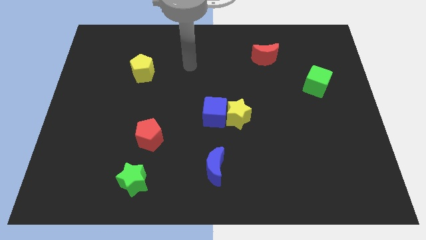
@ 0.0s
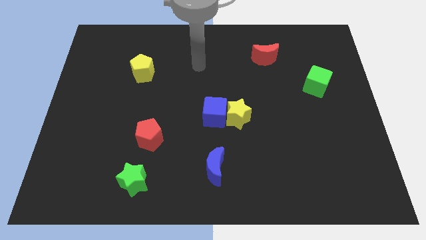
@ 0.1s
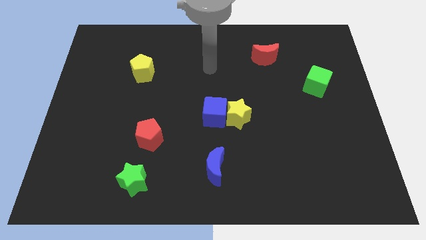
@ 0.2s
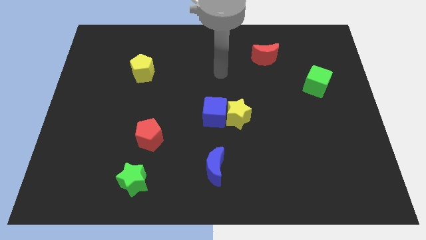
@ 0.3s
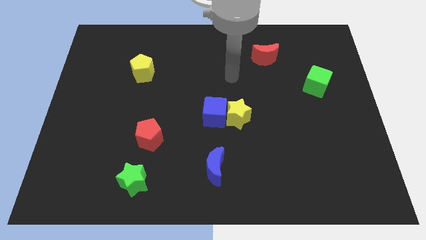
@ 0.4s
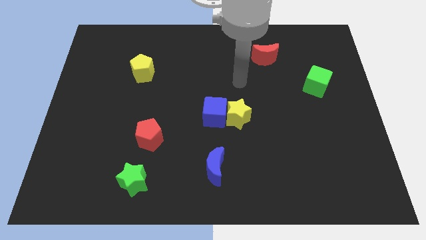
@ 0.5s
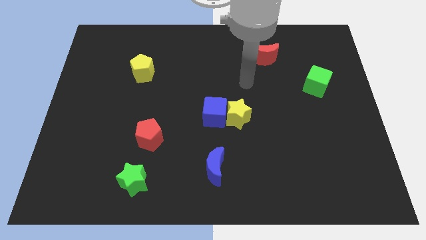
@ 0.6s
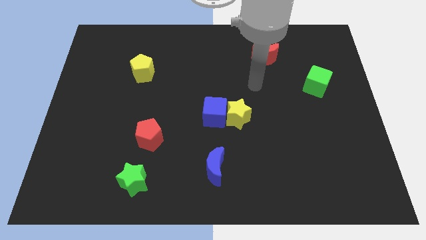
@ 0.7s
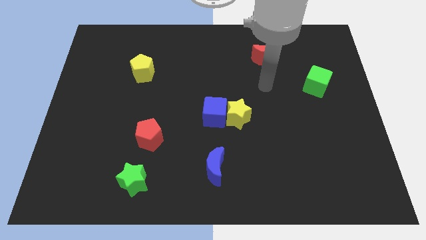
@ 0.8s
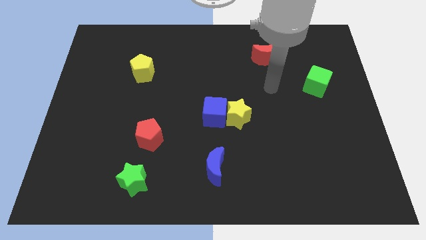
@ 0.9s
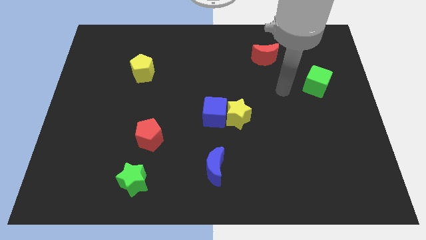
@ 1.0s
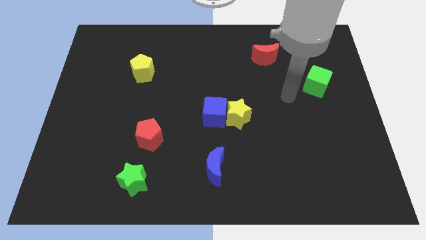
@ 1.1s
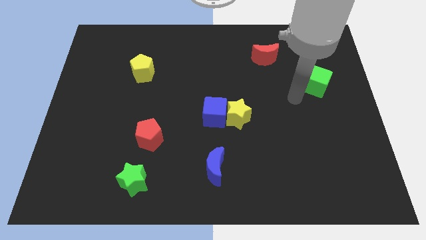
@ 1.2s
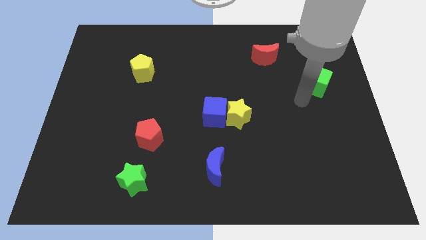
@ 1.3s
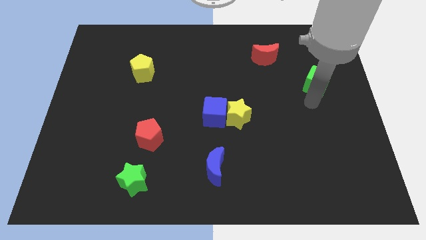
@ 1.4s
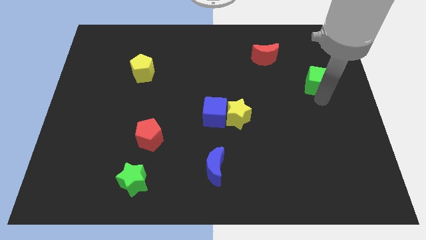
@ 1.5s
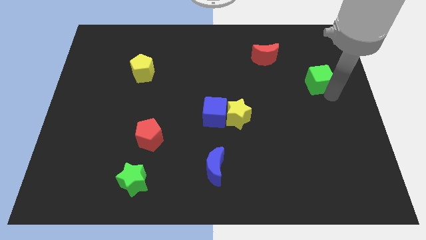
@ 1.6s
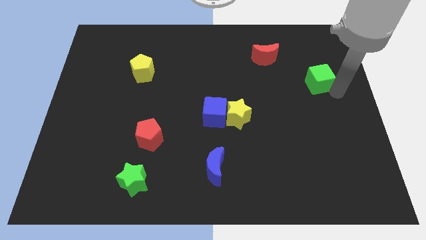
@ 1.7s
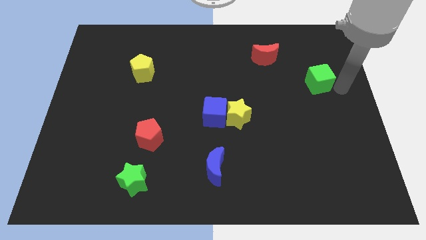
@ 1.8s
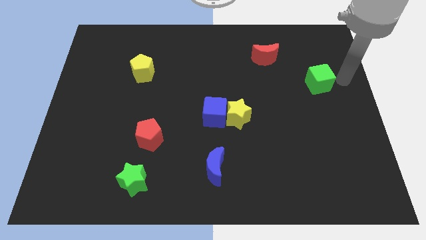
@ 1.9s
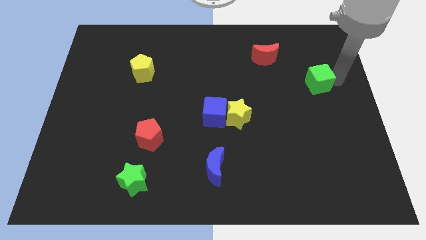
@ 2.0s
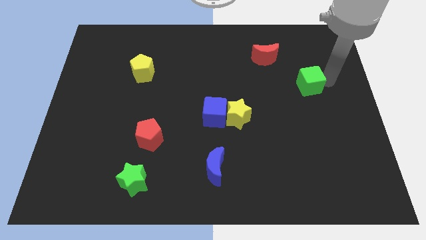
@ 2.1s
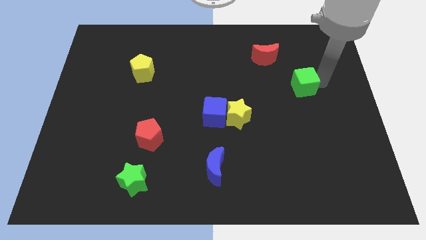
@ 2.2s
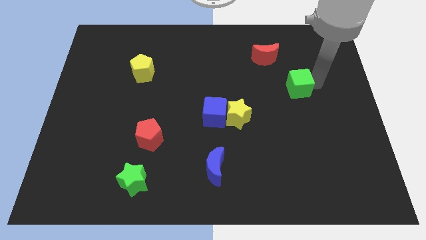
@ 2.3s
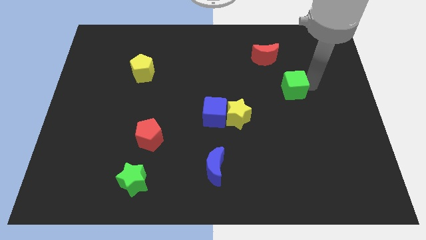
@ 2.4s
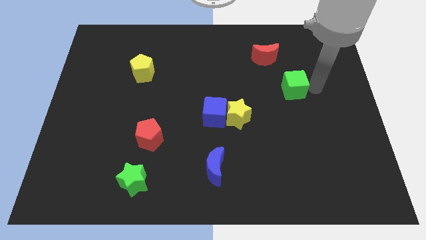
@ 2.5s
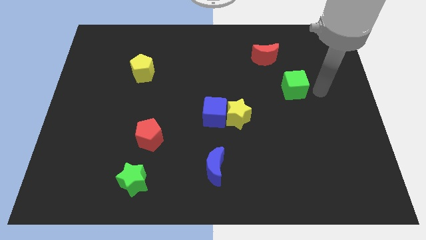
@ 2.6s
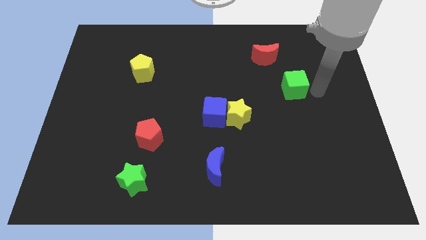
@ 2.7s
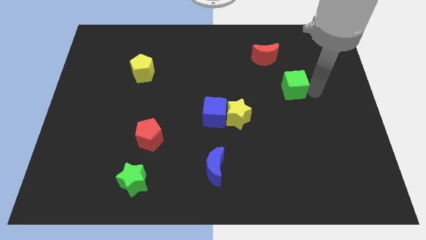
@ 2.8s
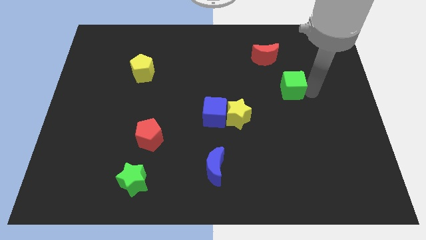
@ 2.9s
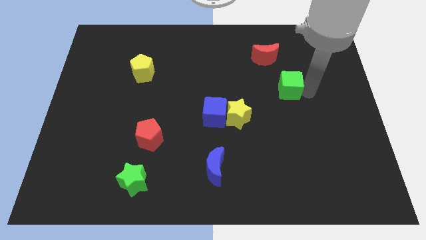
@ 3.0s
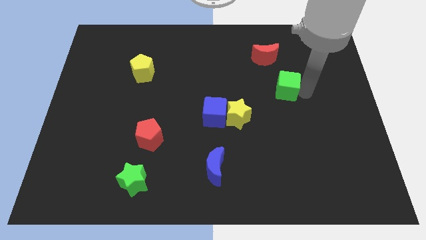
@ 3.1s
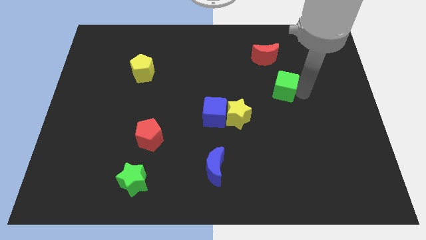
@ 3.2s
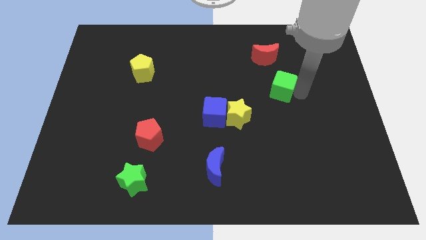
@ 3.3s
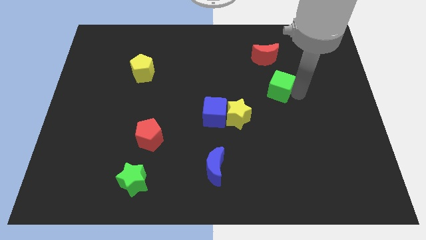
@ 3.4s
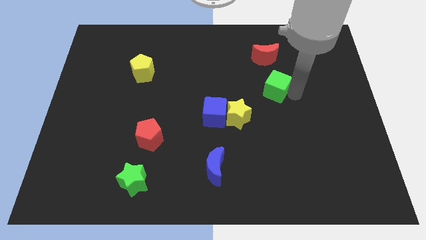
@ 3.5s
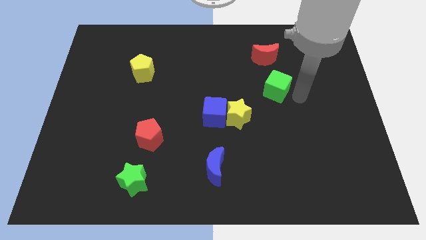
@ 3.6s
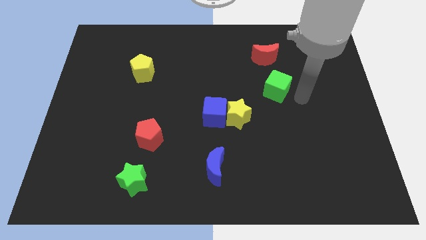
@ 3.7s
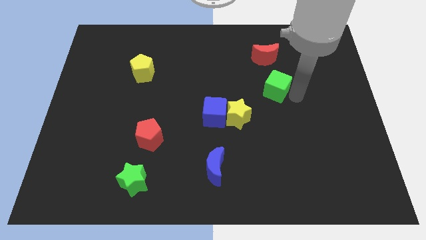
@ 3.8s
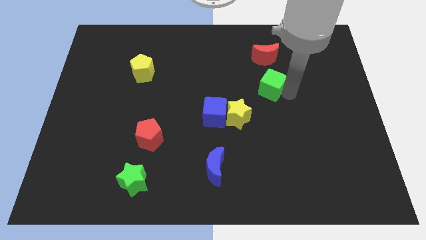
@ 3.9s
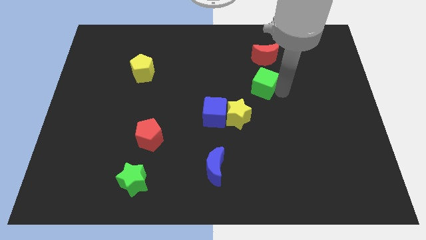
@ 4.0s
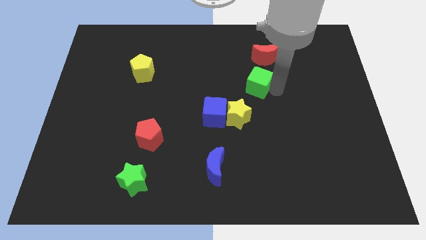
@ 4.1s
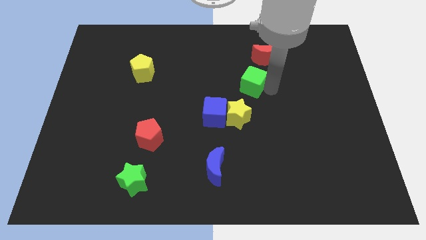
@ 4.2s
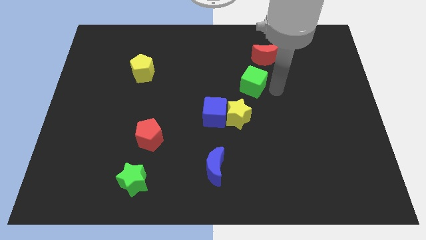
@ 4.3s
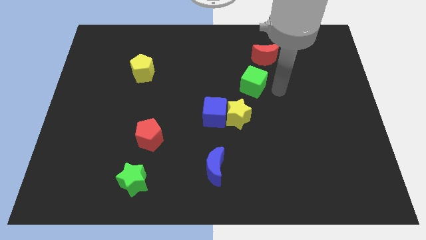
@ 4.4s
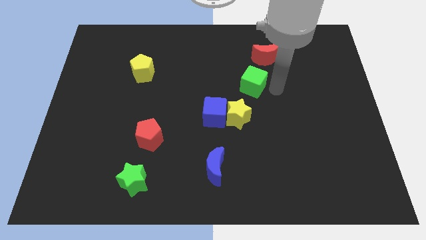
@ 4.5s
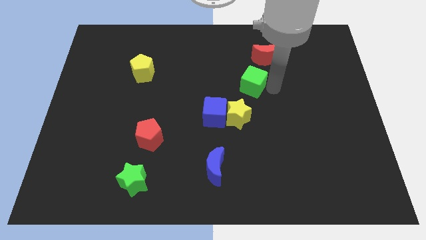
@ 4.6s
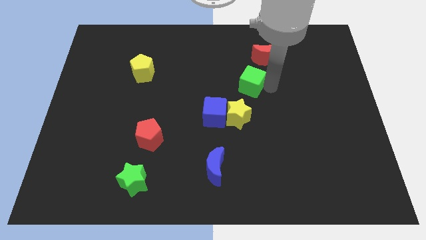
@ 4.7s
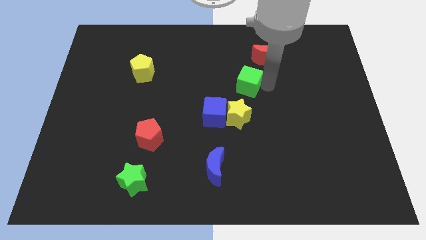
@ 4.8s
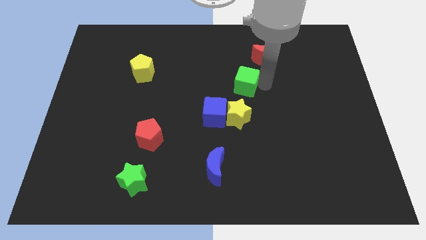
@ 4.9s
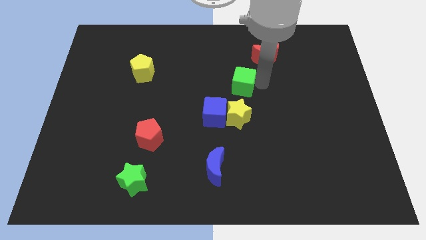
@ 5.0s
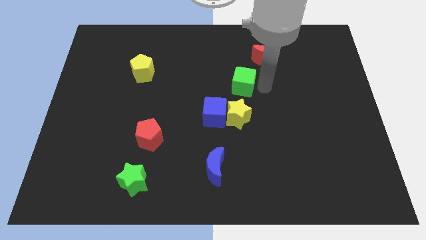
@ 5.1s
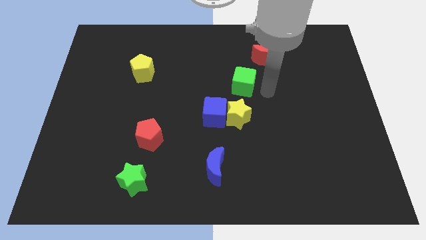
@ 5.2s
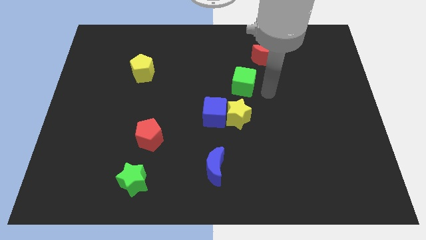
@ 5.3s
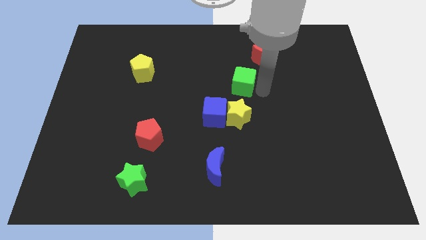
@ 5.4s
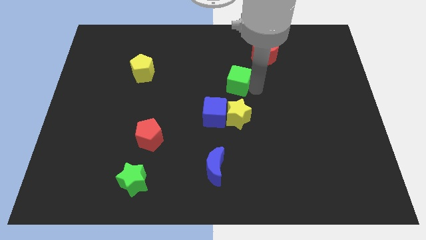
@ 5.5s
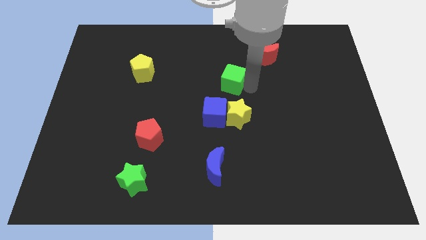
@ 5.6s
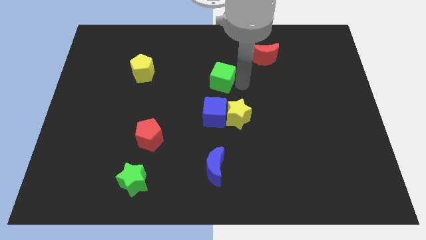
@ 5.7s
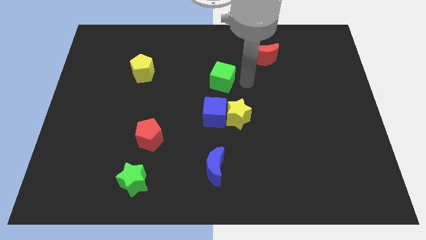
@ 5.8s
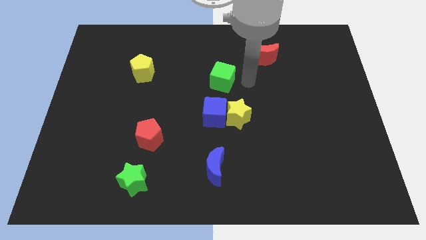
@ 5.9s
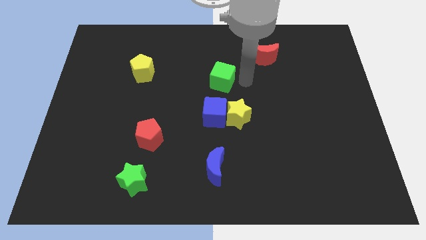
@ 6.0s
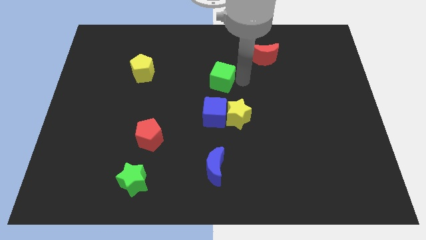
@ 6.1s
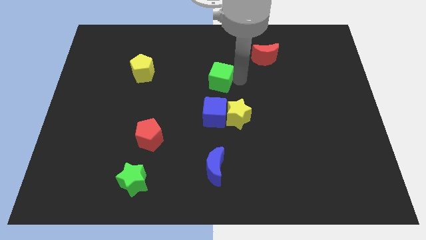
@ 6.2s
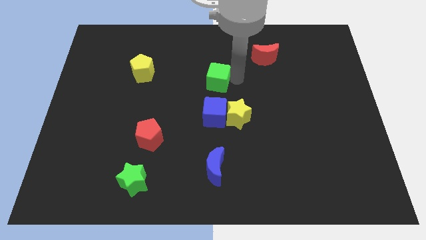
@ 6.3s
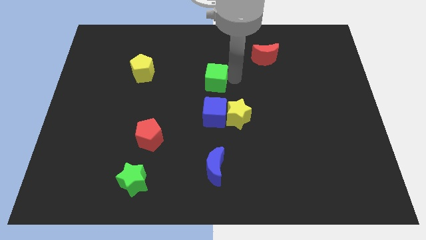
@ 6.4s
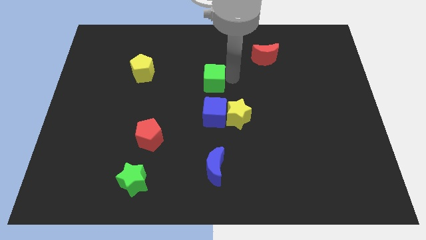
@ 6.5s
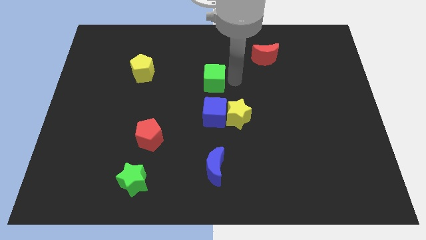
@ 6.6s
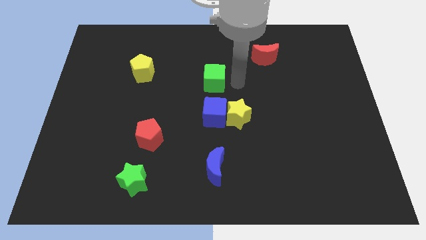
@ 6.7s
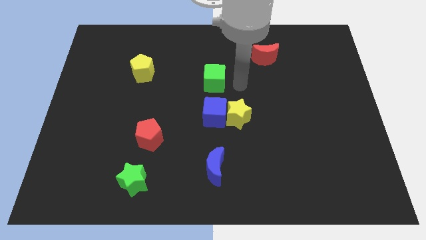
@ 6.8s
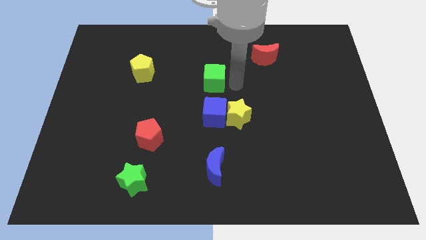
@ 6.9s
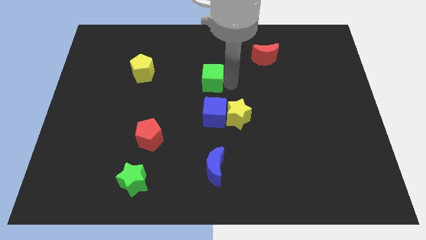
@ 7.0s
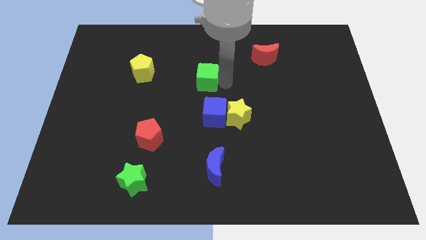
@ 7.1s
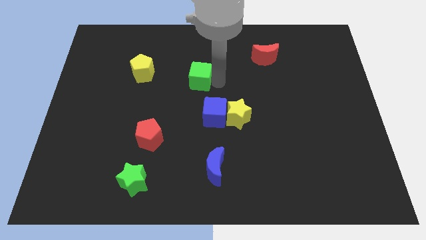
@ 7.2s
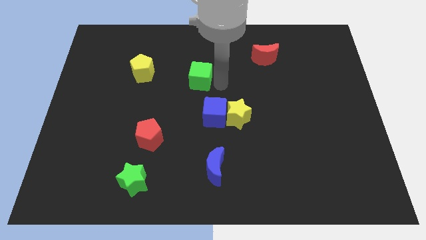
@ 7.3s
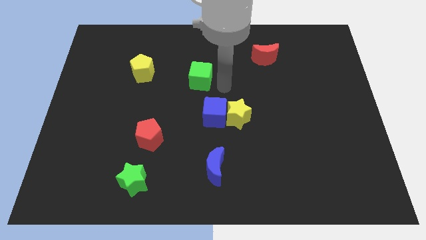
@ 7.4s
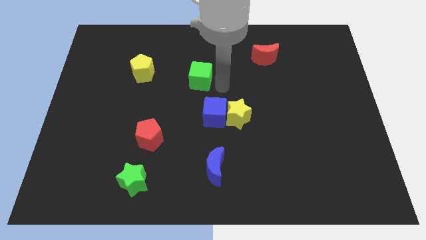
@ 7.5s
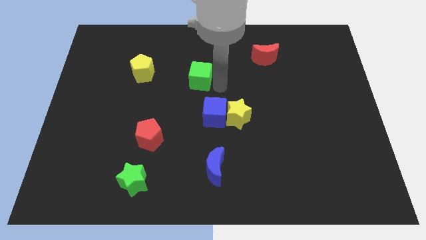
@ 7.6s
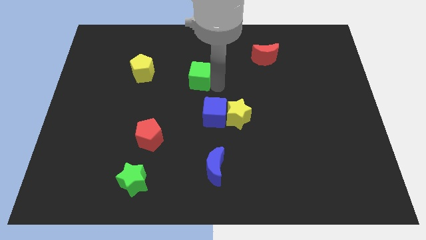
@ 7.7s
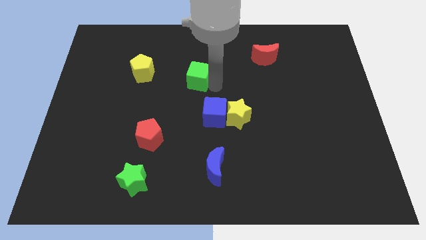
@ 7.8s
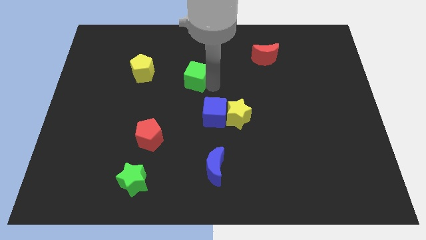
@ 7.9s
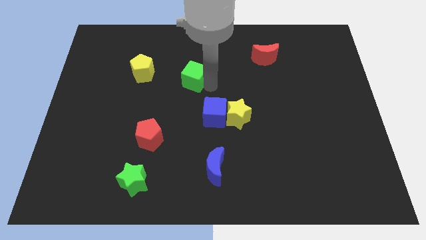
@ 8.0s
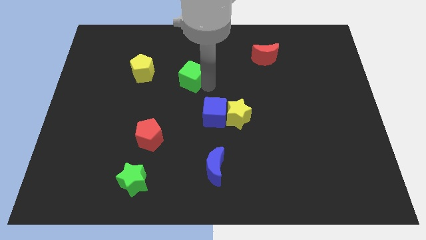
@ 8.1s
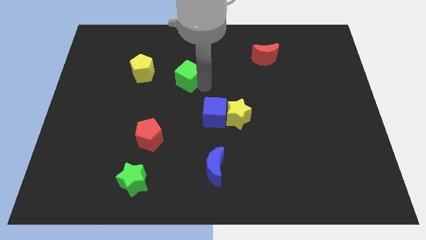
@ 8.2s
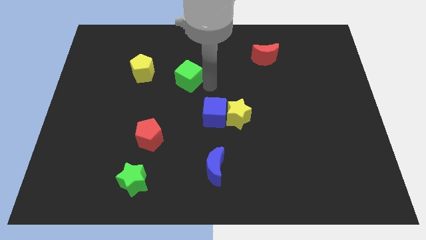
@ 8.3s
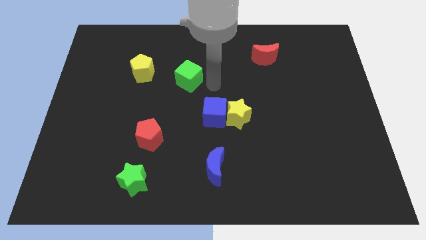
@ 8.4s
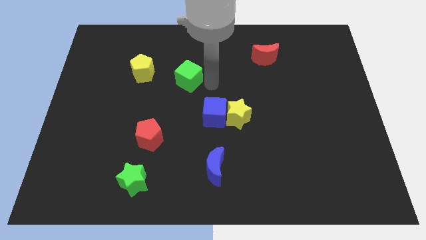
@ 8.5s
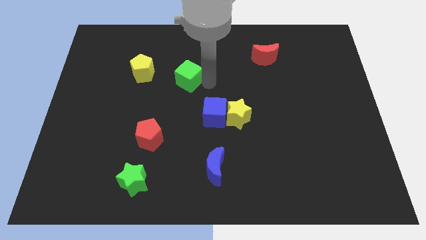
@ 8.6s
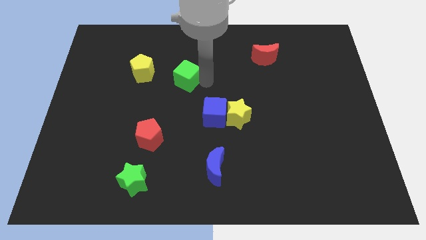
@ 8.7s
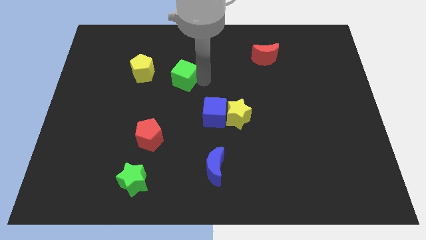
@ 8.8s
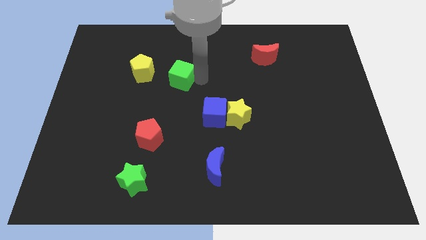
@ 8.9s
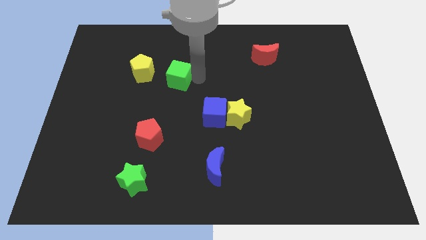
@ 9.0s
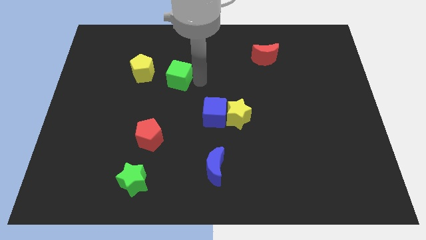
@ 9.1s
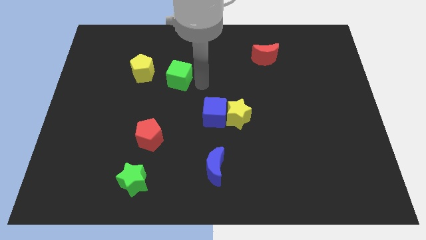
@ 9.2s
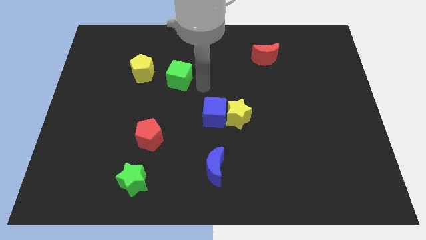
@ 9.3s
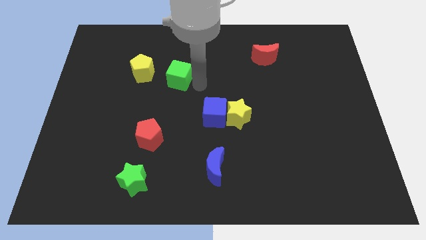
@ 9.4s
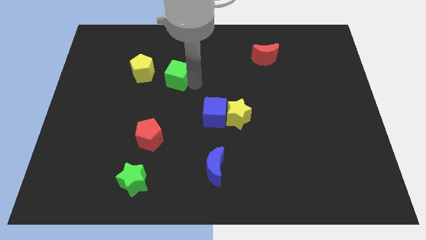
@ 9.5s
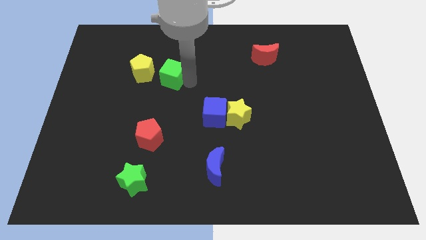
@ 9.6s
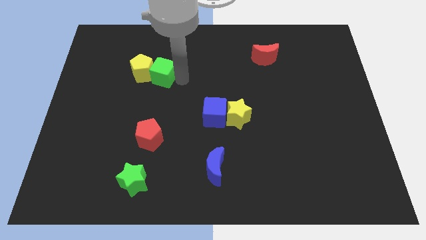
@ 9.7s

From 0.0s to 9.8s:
put the green cube next to the yellow pentagon
